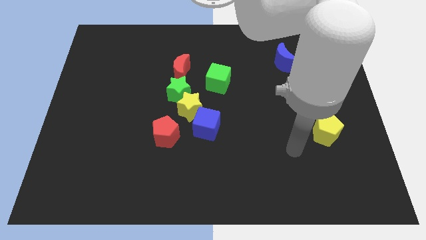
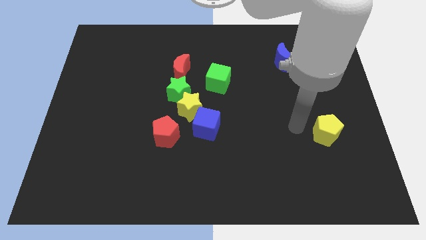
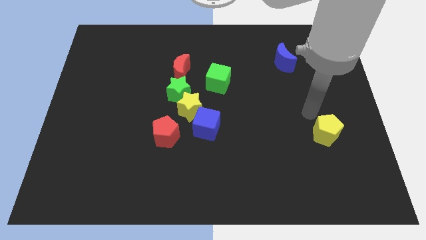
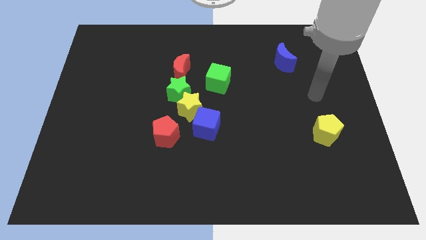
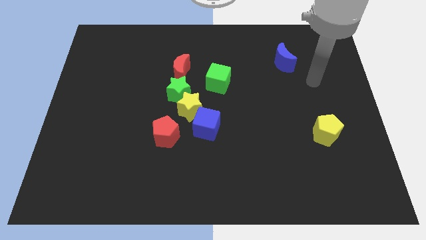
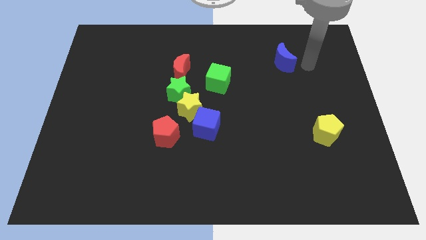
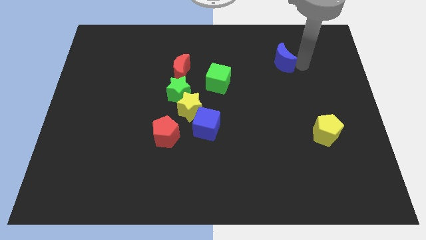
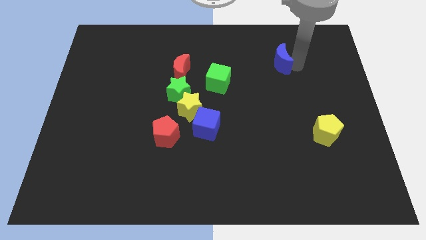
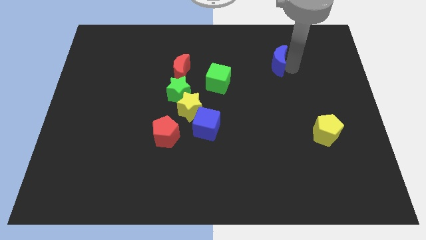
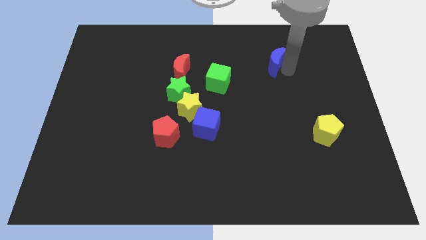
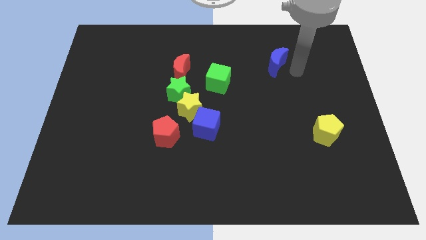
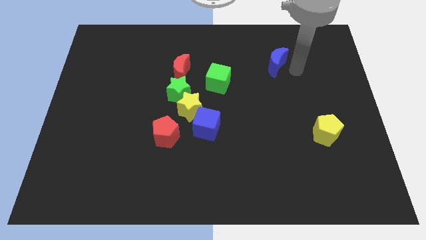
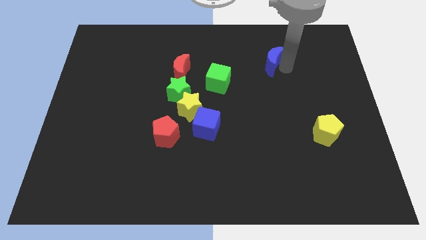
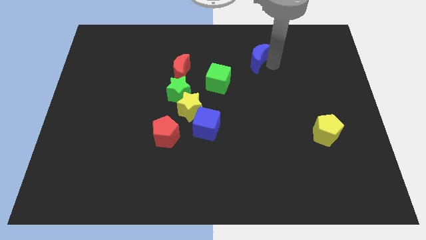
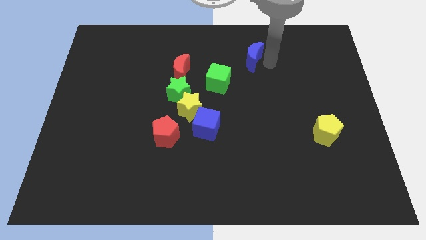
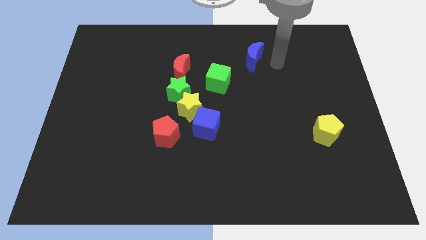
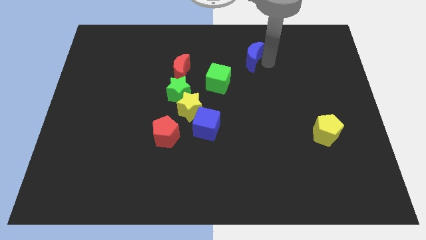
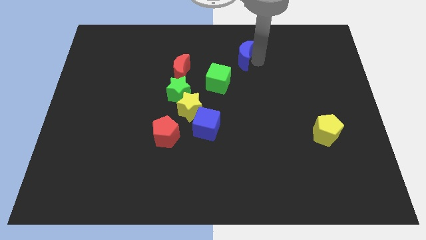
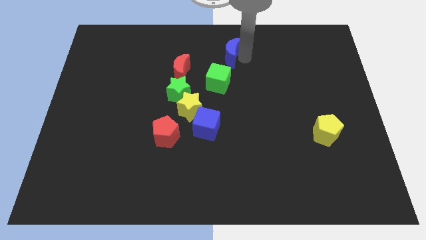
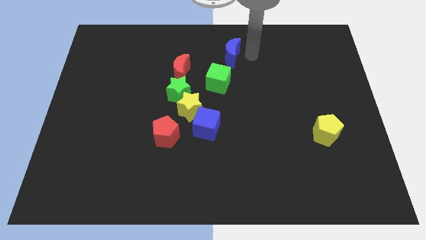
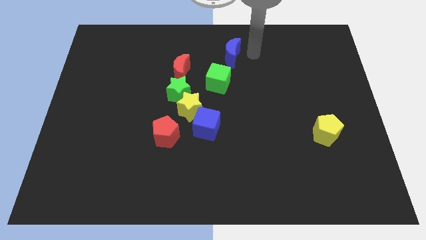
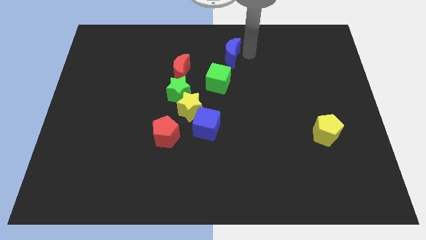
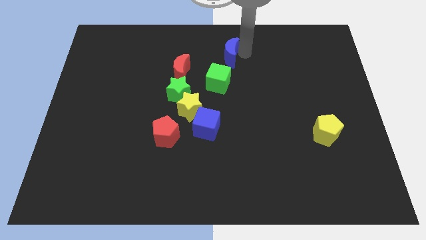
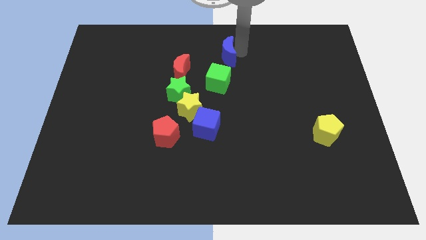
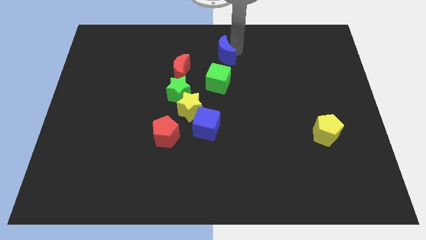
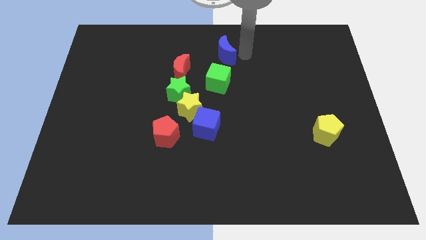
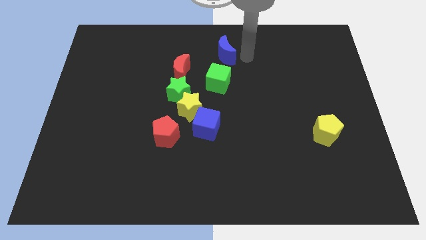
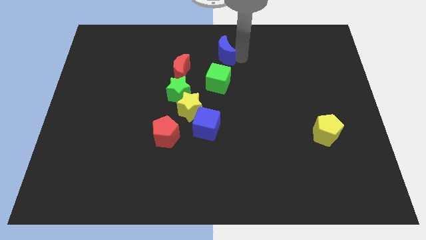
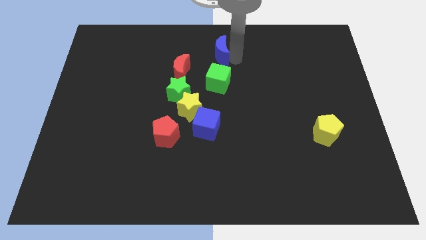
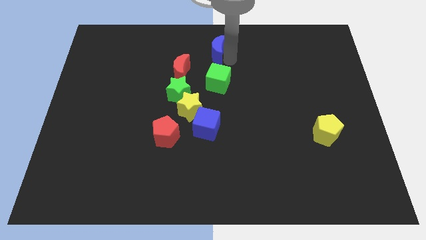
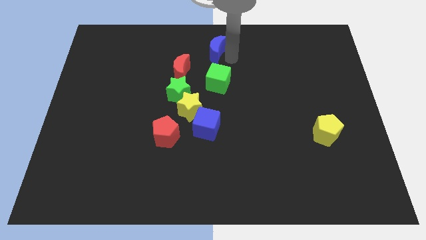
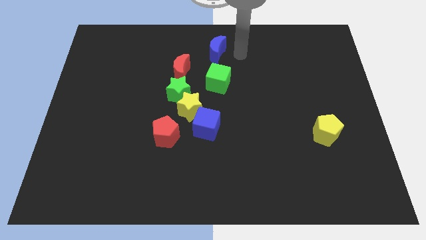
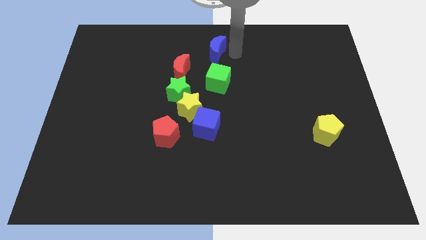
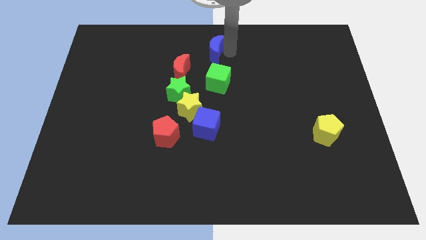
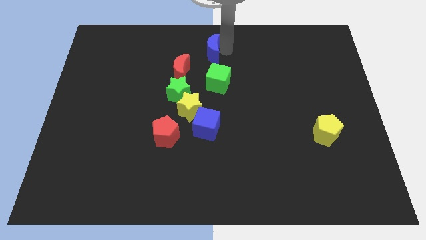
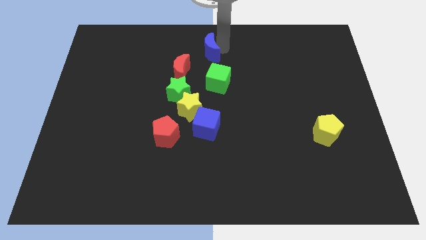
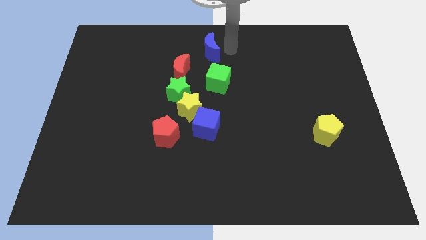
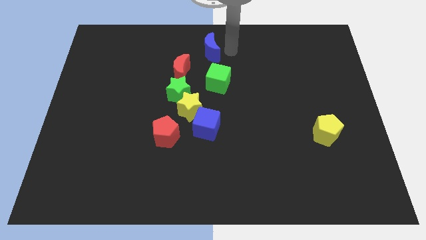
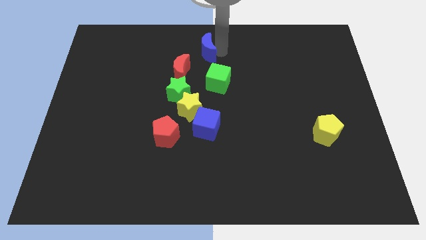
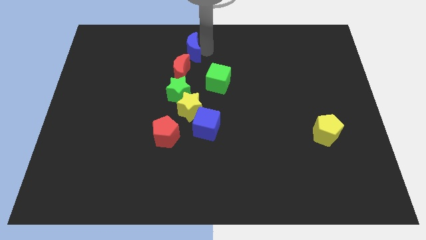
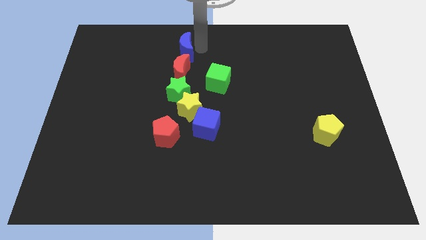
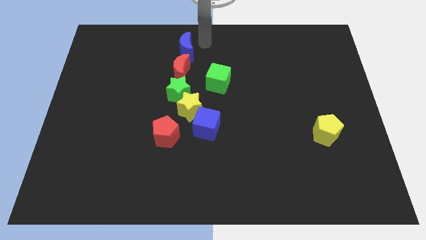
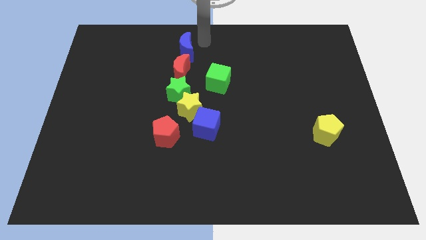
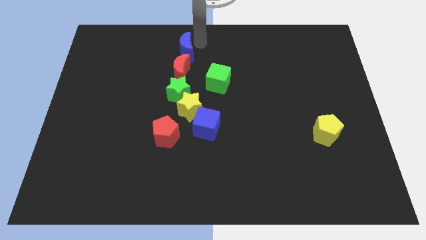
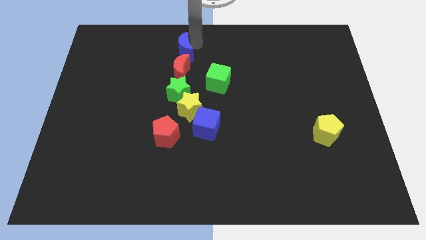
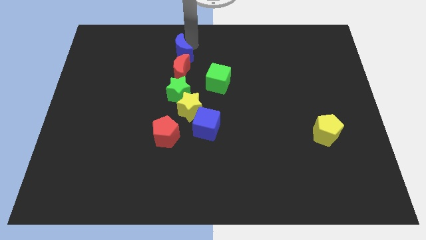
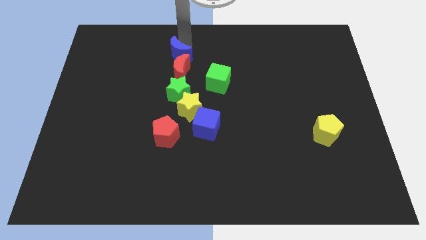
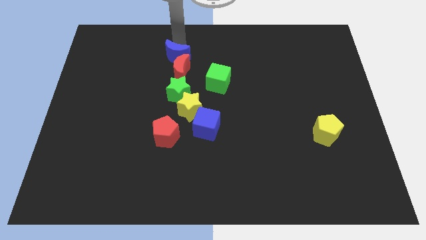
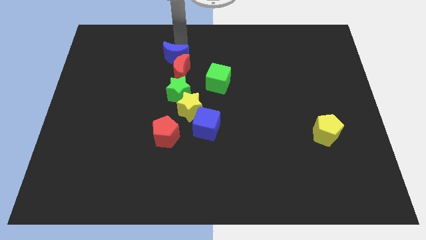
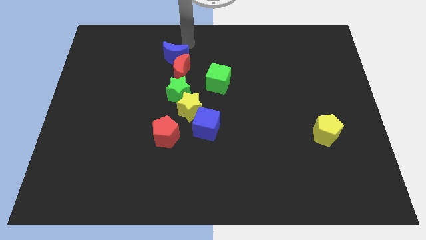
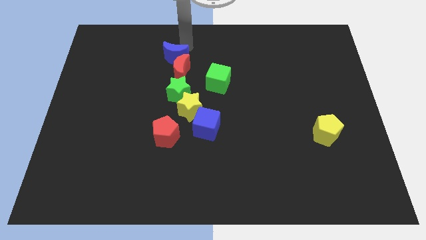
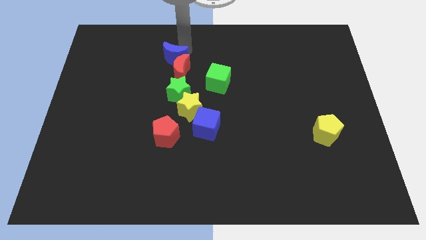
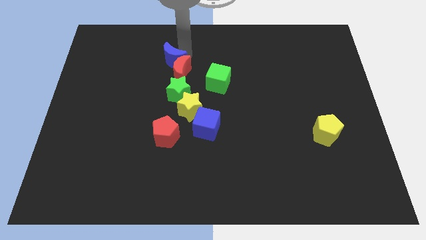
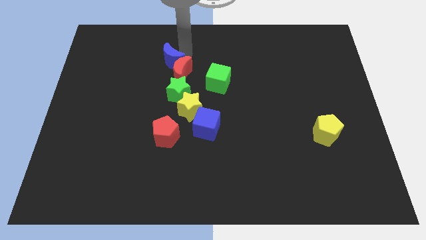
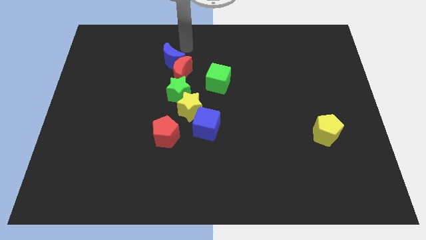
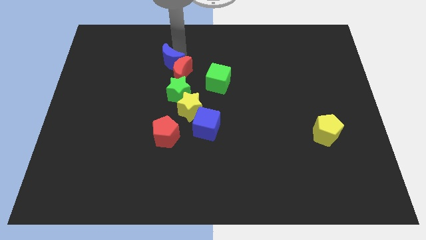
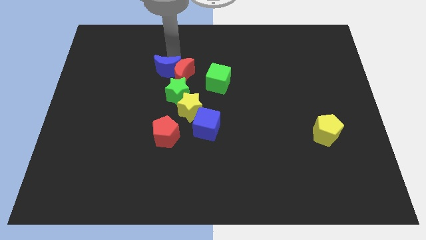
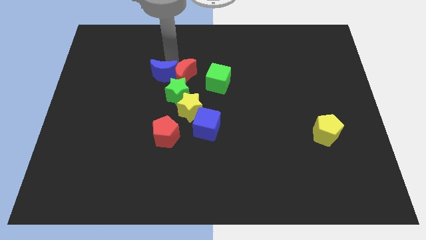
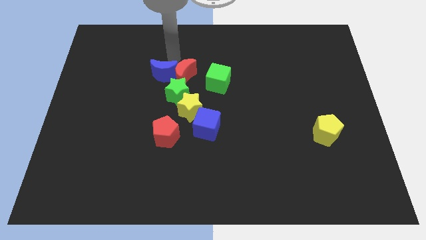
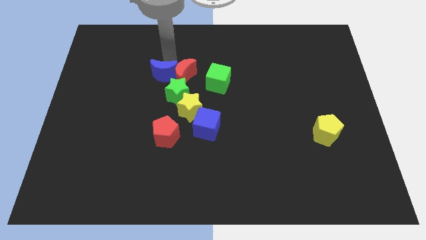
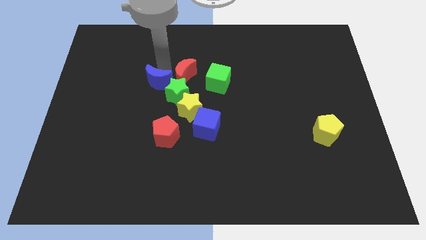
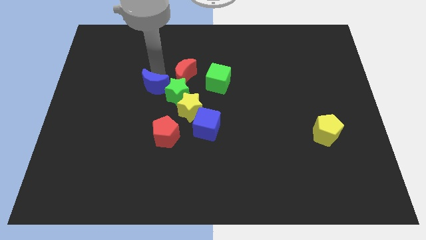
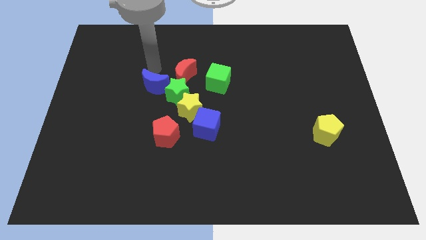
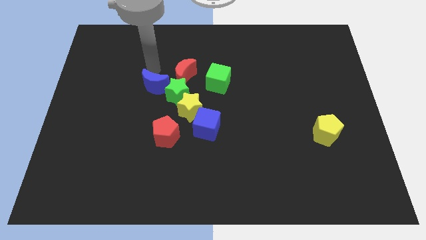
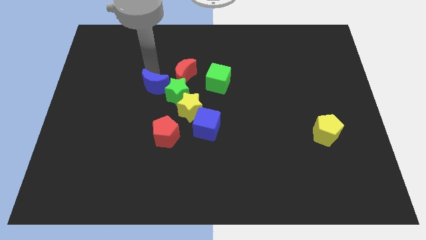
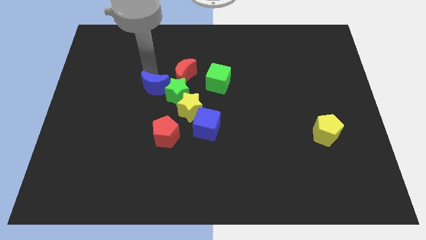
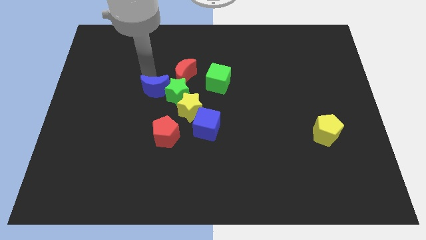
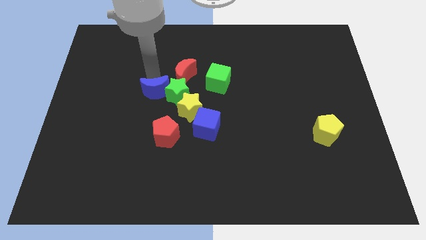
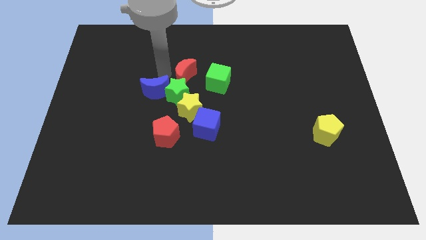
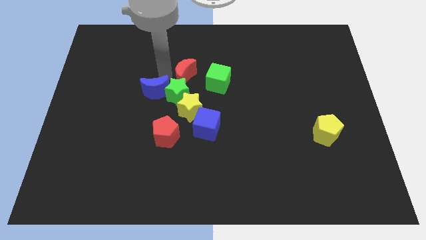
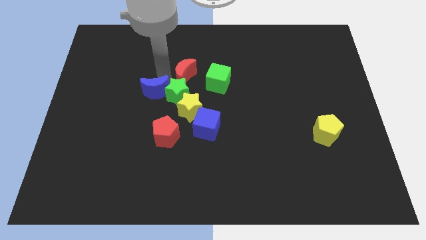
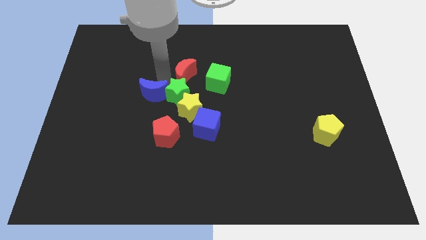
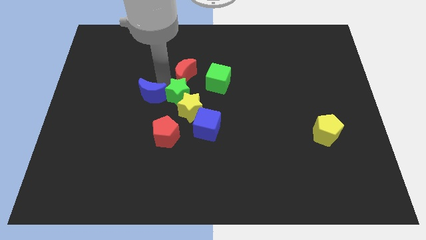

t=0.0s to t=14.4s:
move the blue moon to the left side of the yellow star
